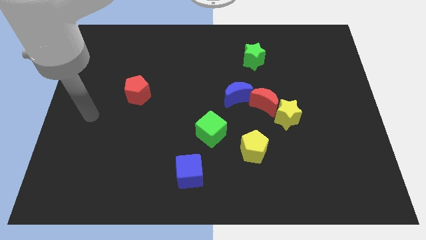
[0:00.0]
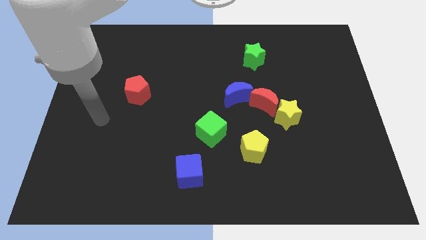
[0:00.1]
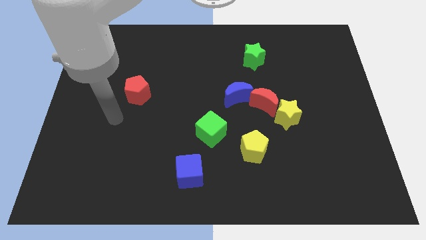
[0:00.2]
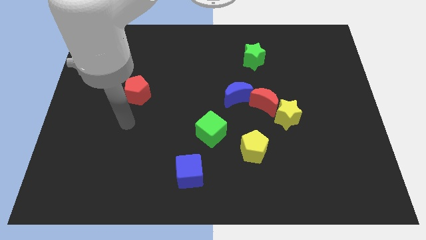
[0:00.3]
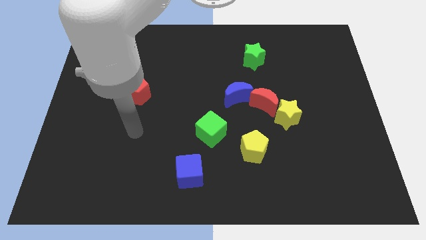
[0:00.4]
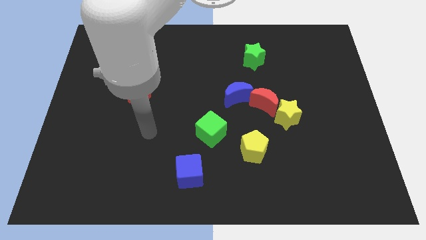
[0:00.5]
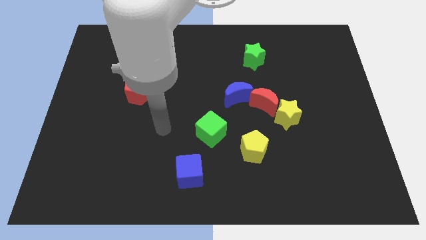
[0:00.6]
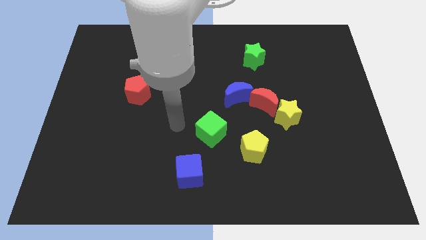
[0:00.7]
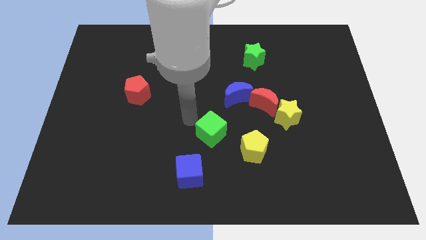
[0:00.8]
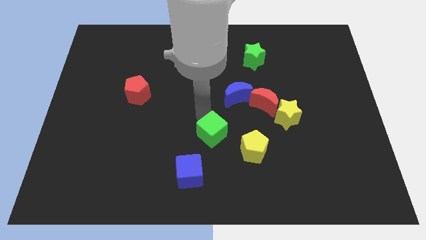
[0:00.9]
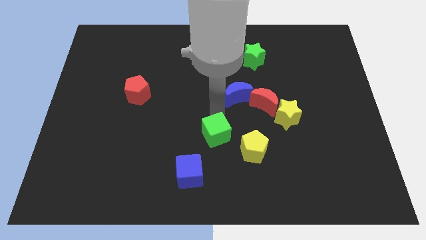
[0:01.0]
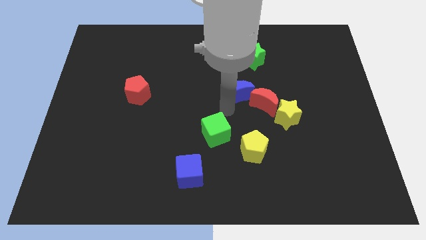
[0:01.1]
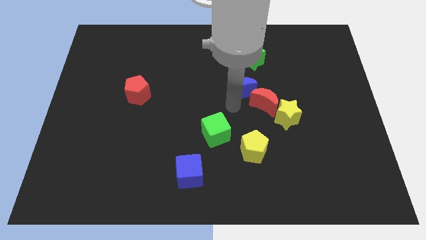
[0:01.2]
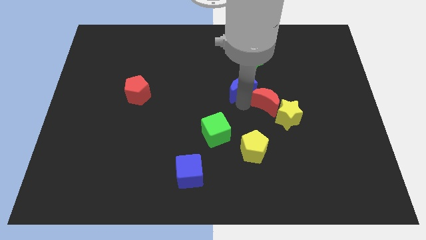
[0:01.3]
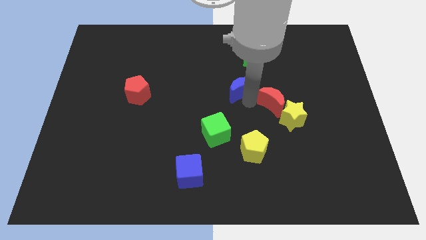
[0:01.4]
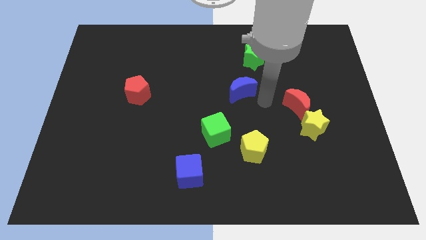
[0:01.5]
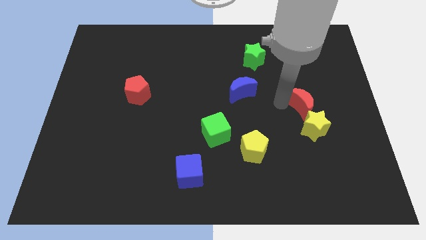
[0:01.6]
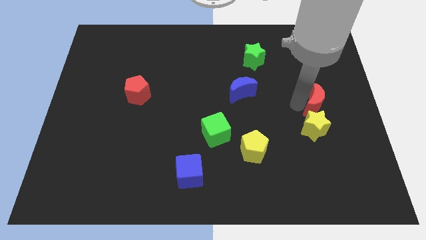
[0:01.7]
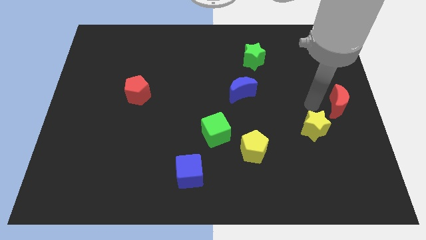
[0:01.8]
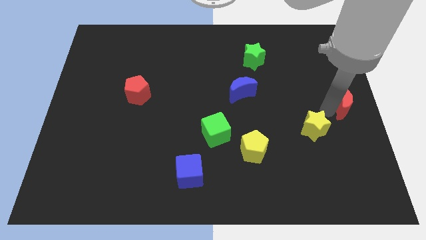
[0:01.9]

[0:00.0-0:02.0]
move the yellow star away from the red moon

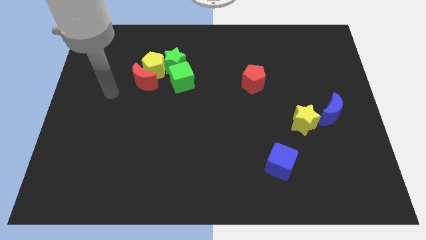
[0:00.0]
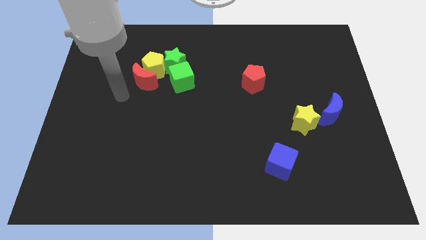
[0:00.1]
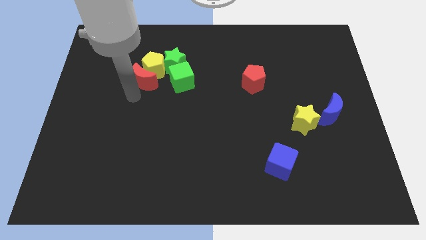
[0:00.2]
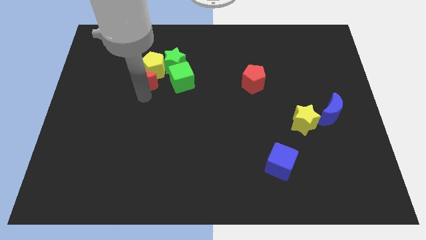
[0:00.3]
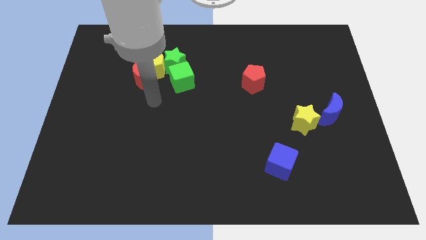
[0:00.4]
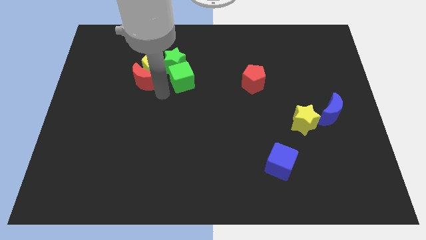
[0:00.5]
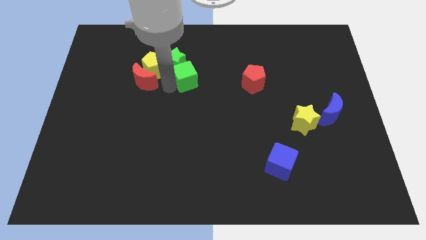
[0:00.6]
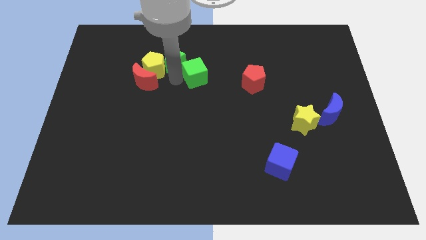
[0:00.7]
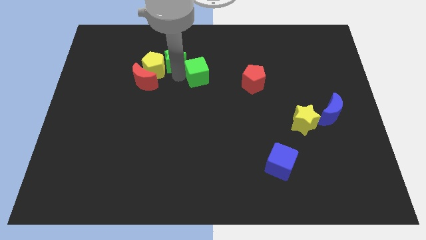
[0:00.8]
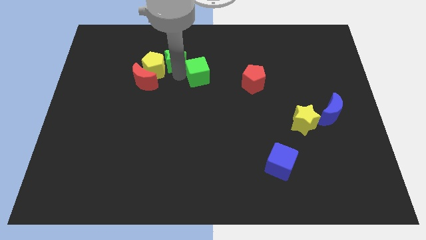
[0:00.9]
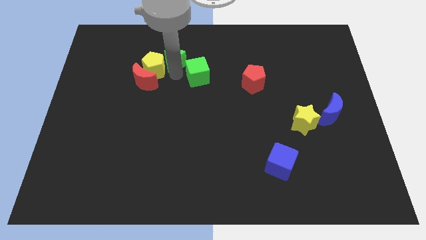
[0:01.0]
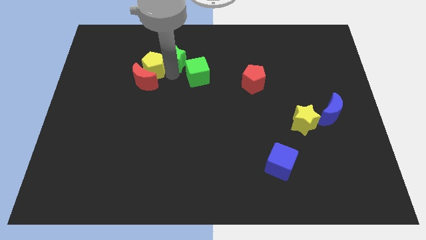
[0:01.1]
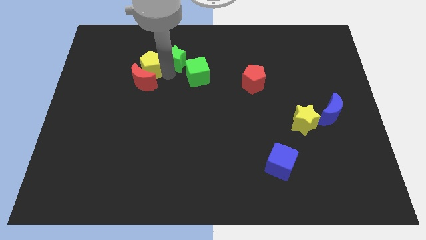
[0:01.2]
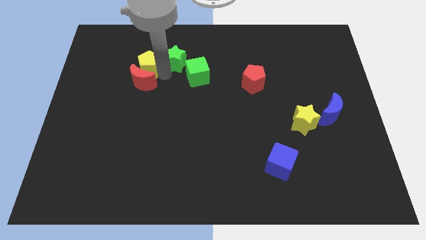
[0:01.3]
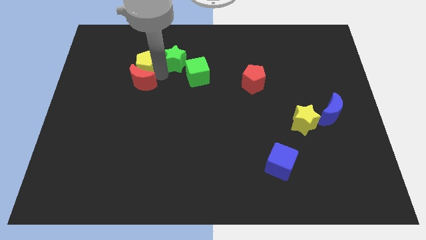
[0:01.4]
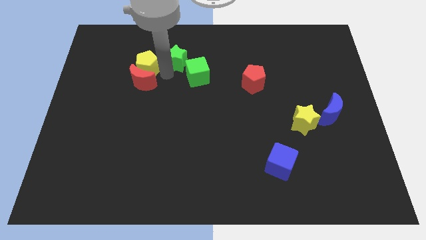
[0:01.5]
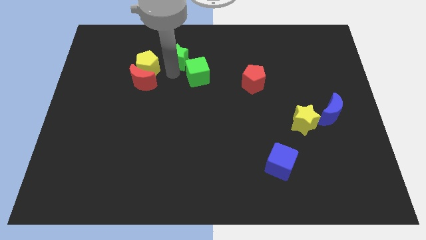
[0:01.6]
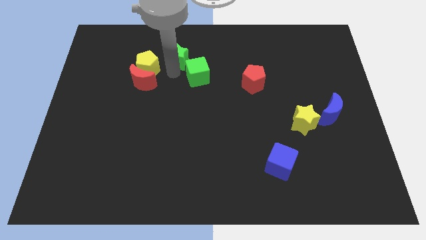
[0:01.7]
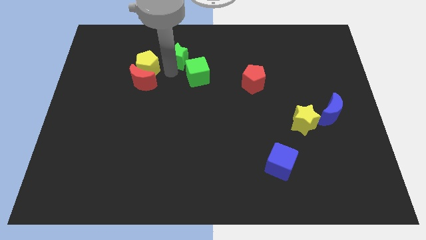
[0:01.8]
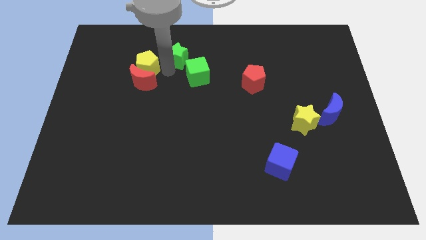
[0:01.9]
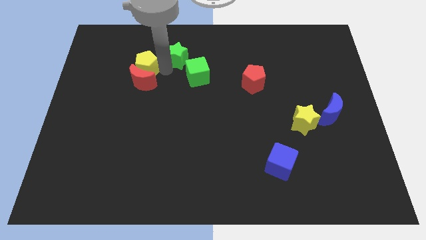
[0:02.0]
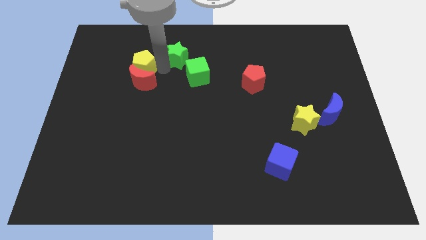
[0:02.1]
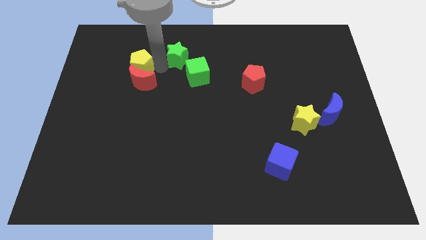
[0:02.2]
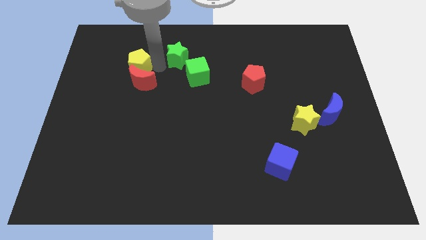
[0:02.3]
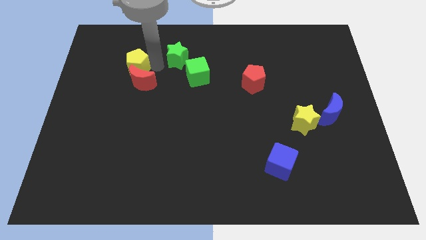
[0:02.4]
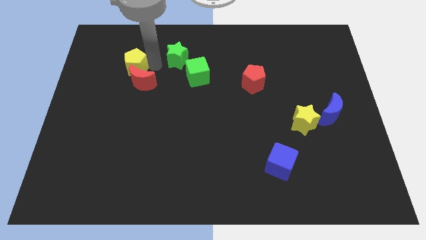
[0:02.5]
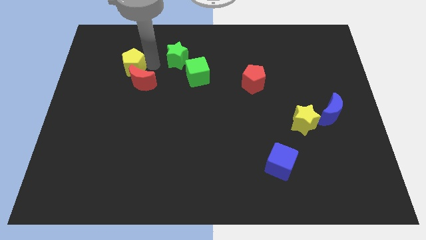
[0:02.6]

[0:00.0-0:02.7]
pull the yellow pentagon apart from the group of blocks

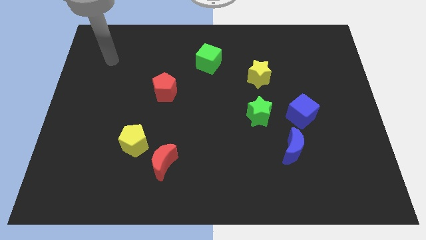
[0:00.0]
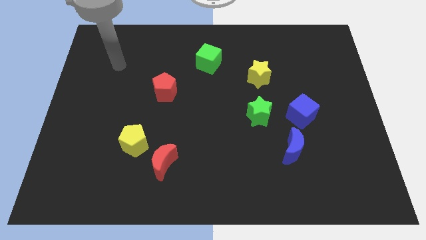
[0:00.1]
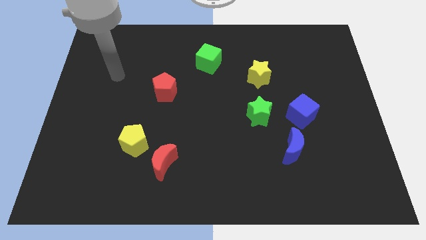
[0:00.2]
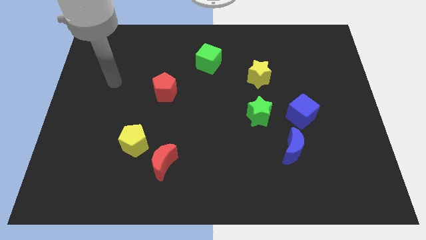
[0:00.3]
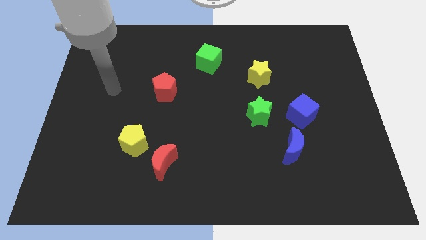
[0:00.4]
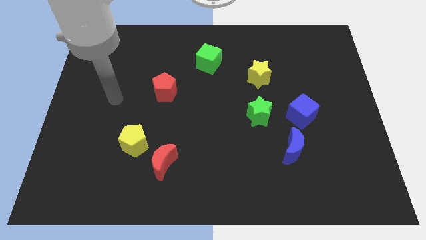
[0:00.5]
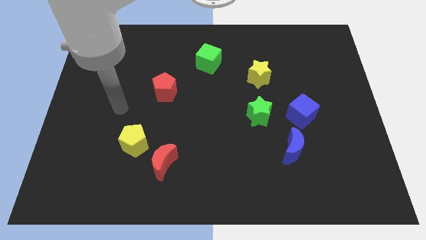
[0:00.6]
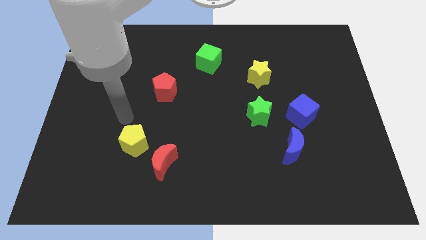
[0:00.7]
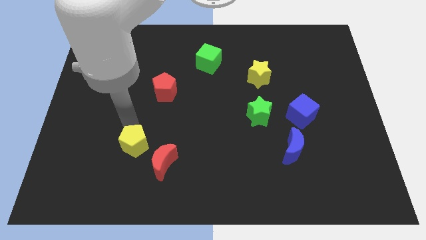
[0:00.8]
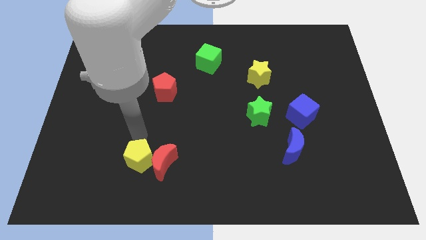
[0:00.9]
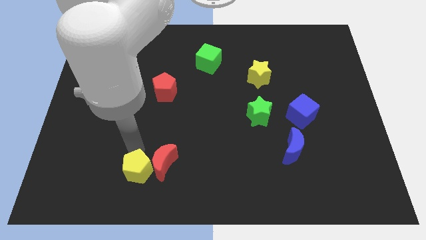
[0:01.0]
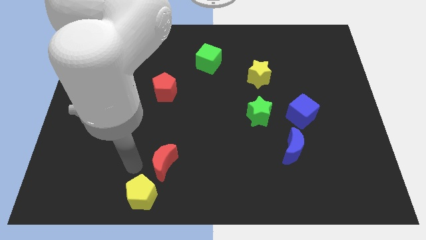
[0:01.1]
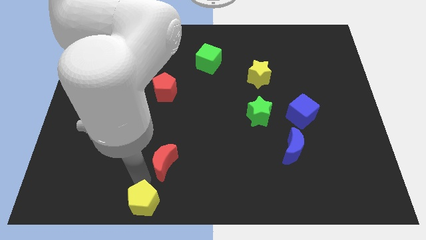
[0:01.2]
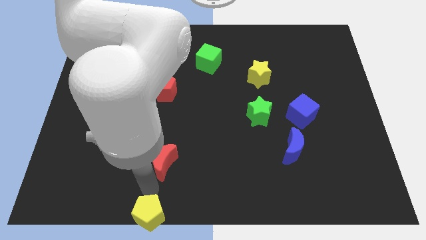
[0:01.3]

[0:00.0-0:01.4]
separate the red moon from the yellow pentagon

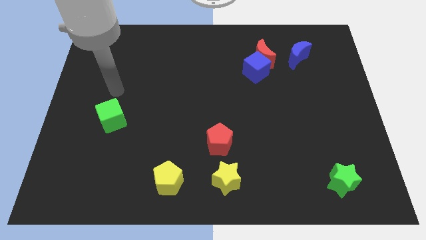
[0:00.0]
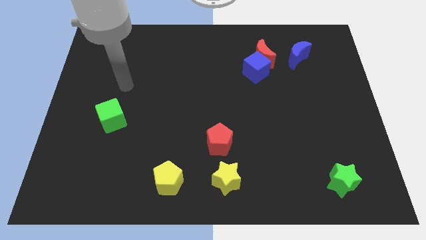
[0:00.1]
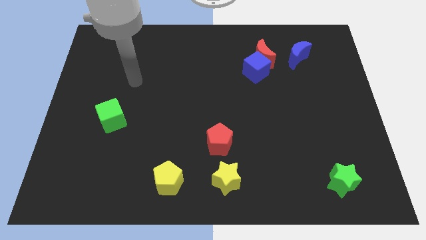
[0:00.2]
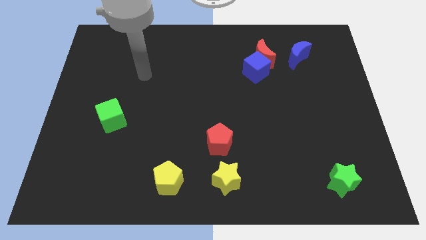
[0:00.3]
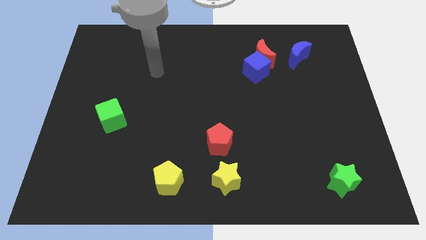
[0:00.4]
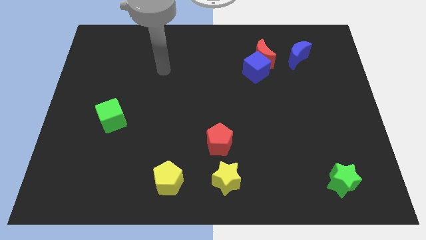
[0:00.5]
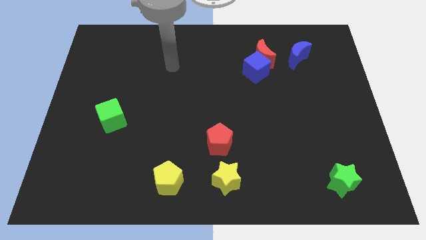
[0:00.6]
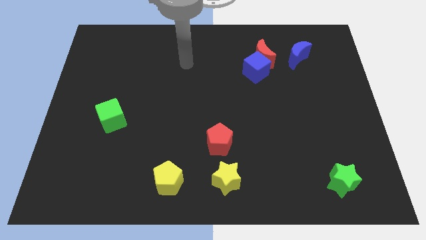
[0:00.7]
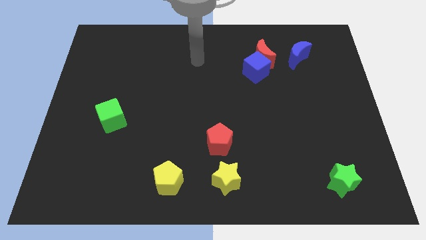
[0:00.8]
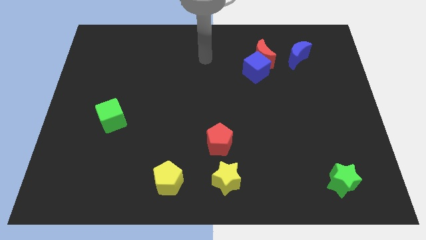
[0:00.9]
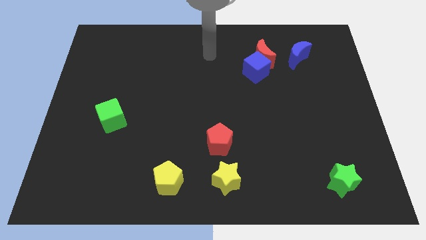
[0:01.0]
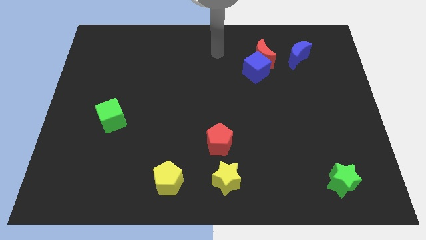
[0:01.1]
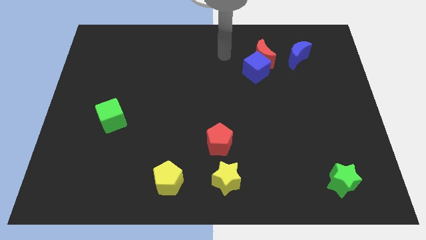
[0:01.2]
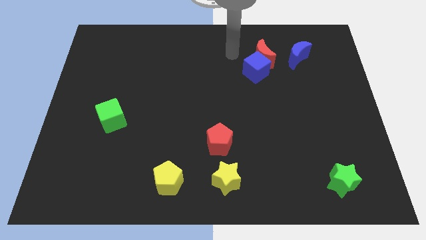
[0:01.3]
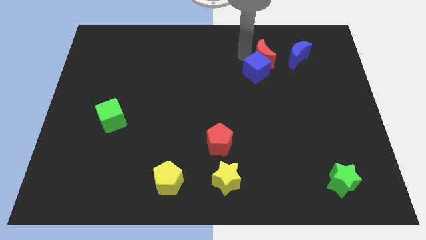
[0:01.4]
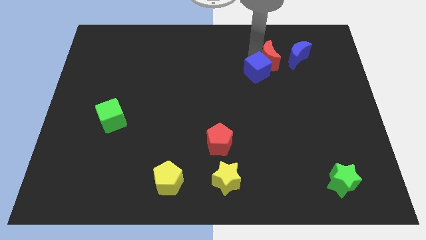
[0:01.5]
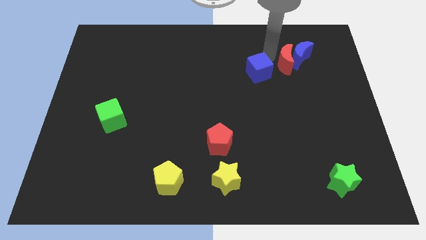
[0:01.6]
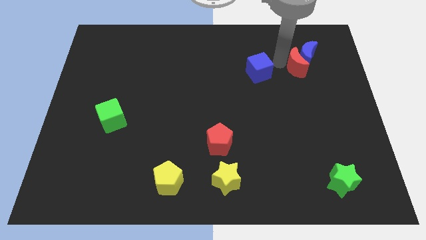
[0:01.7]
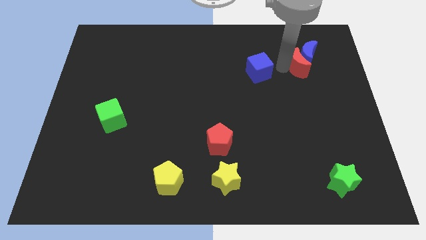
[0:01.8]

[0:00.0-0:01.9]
separate the blue cube from the red moon

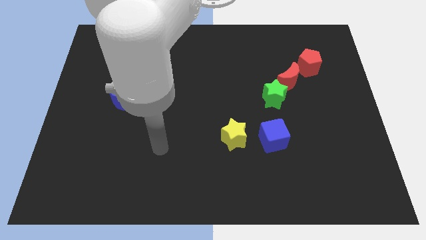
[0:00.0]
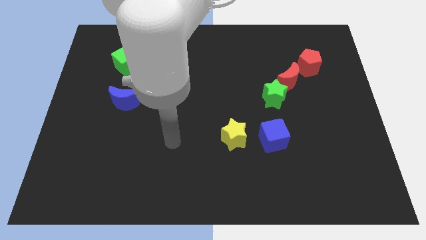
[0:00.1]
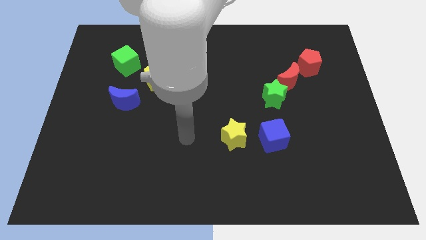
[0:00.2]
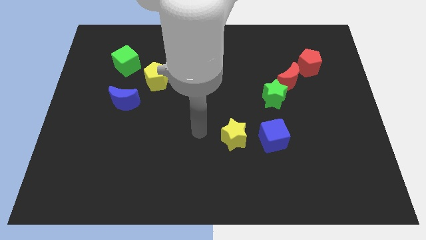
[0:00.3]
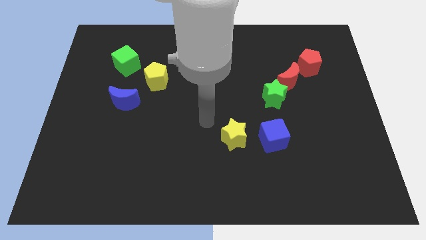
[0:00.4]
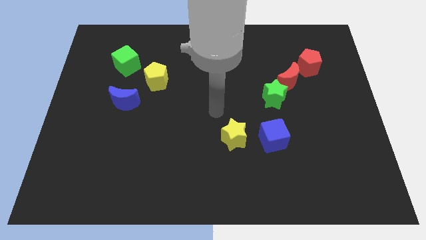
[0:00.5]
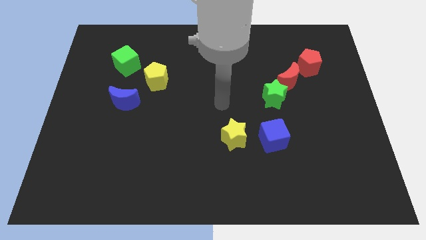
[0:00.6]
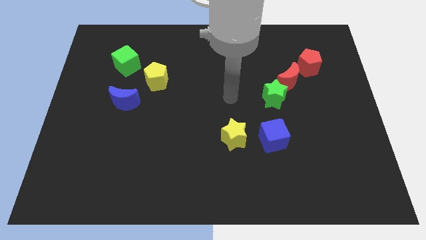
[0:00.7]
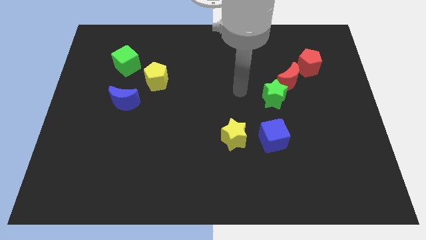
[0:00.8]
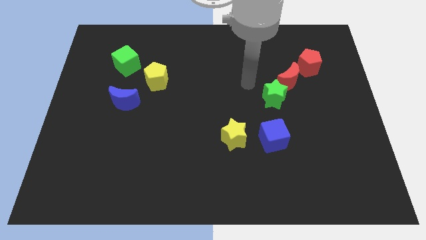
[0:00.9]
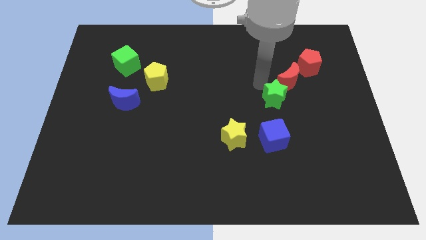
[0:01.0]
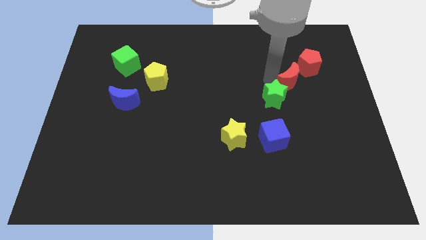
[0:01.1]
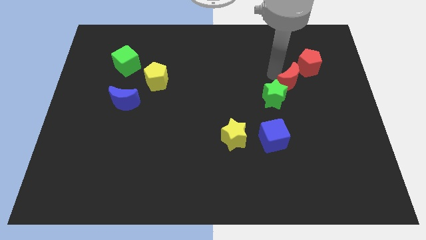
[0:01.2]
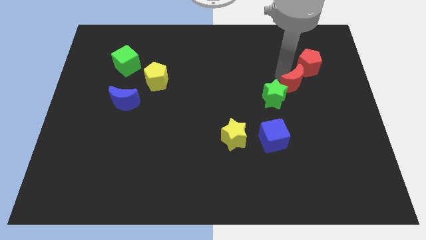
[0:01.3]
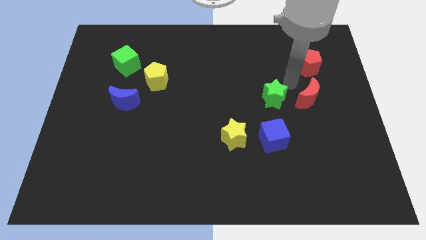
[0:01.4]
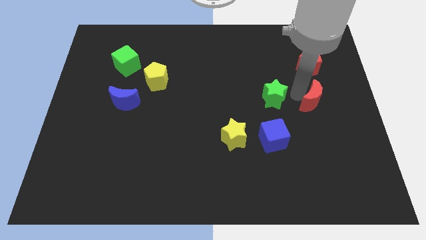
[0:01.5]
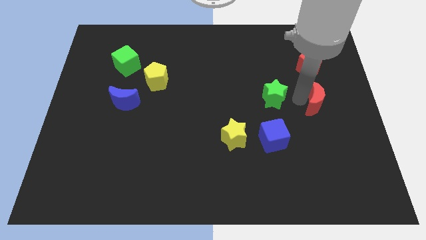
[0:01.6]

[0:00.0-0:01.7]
pull the green star apart from the red moon
